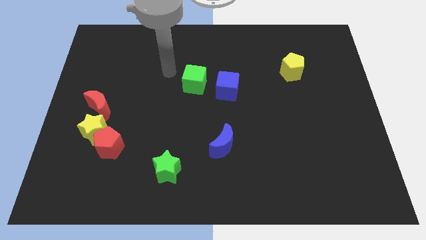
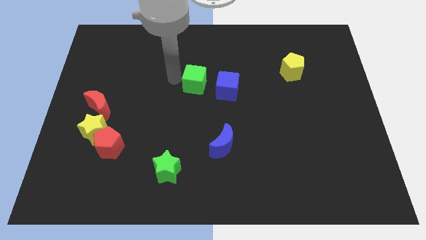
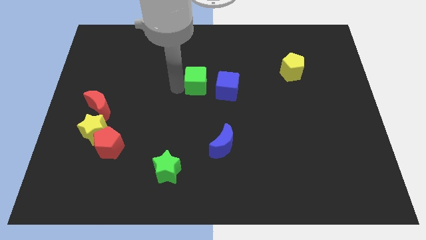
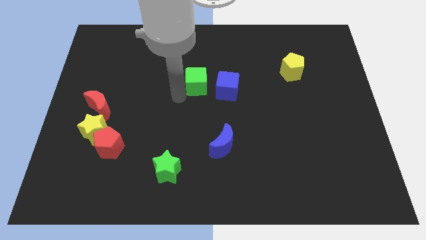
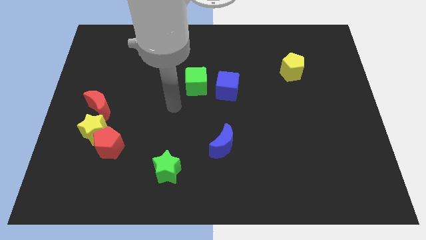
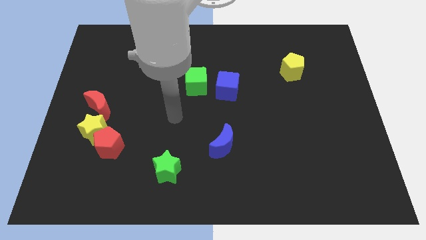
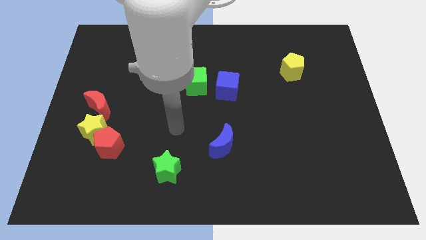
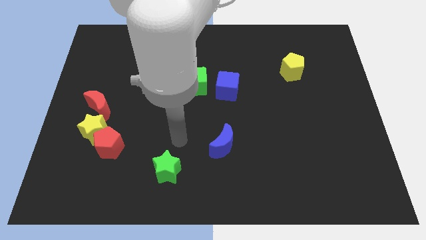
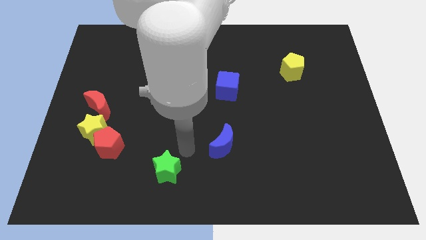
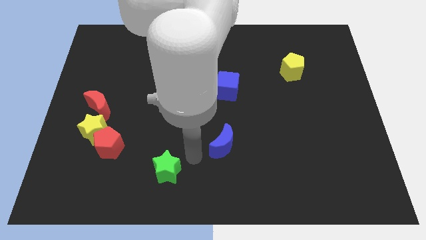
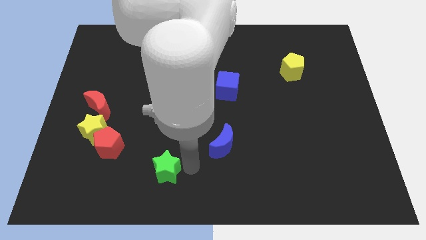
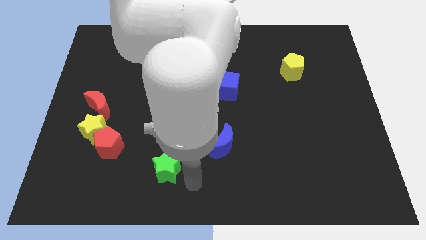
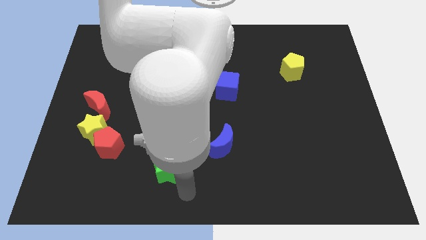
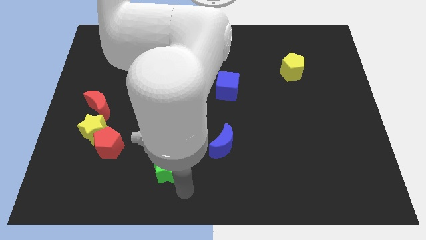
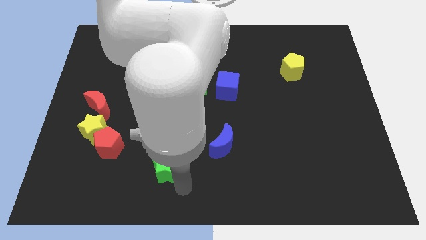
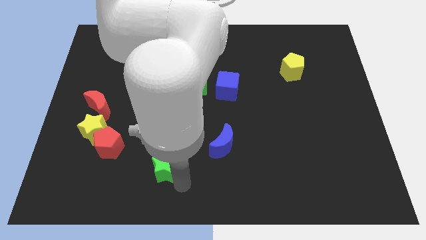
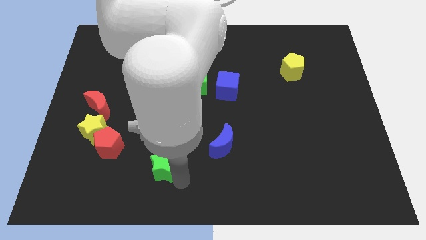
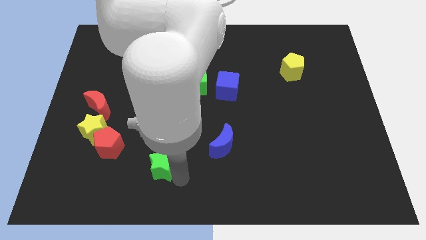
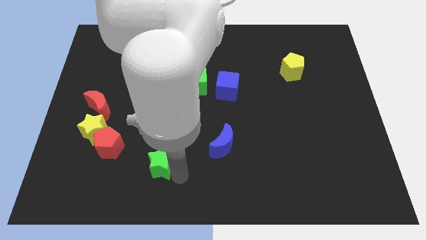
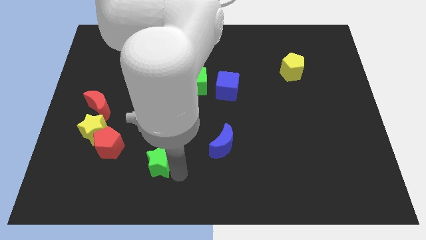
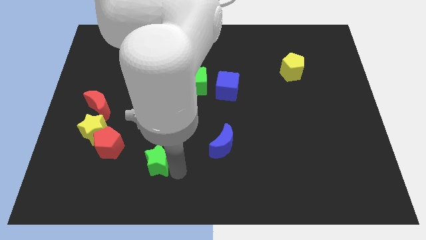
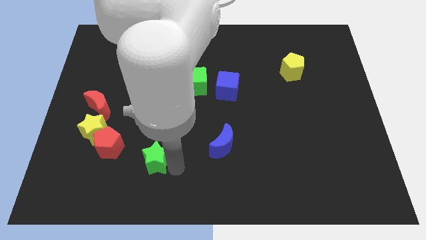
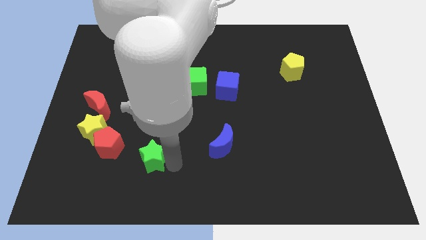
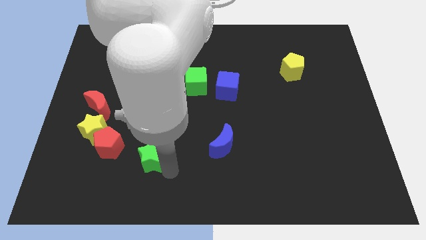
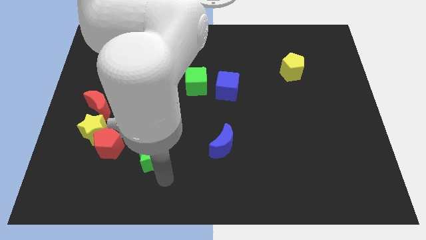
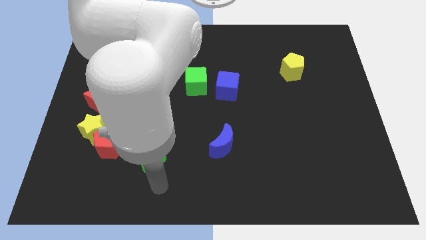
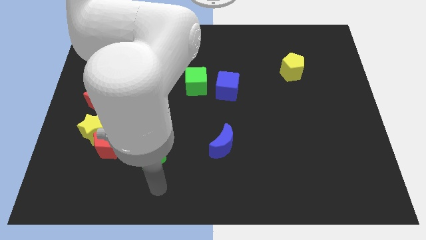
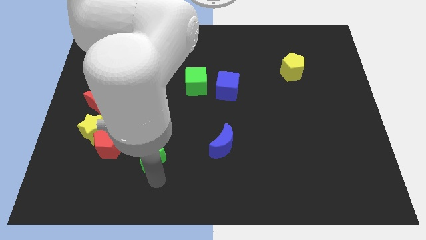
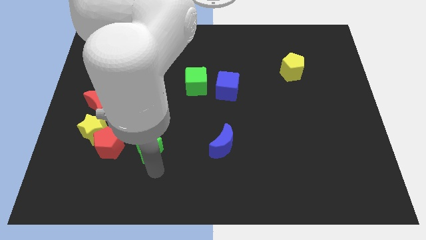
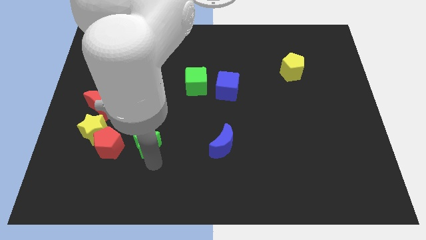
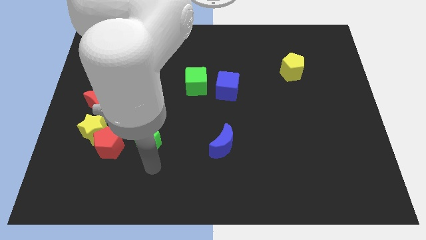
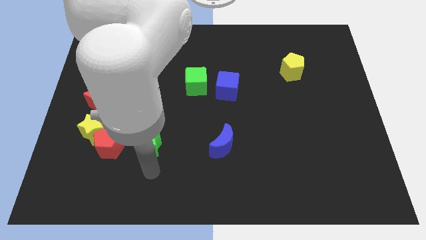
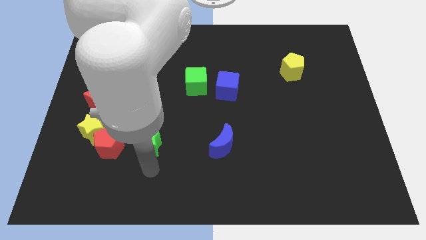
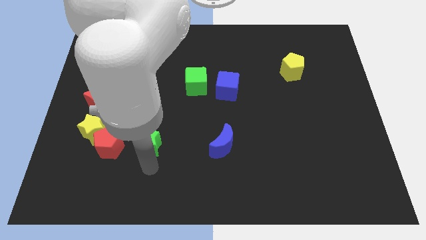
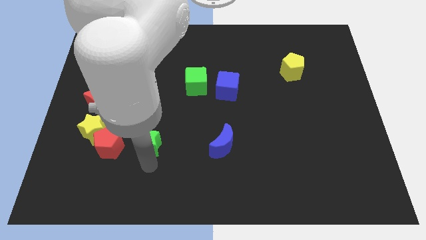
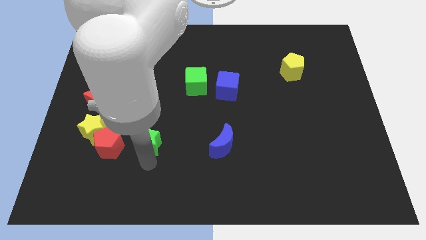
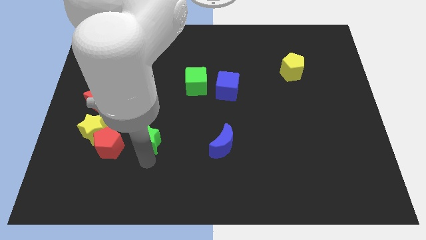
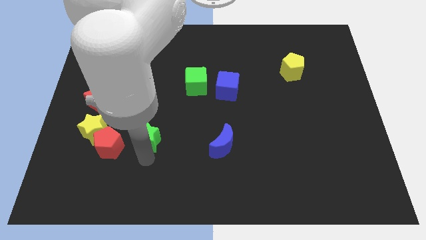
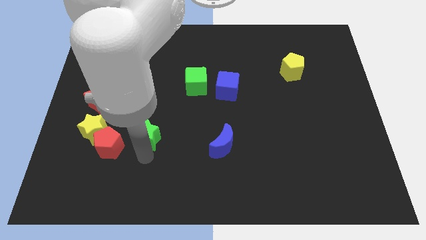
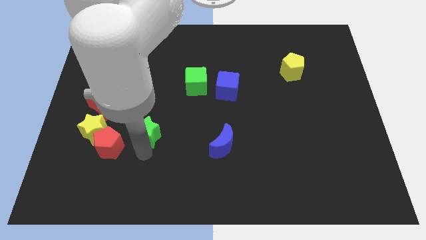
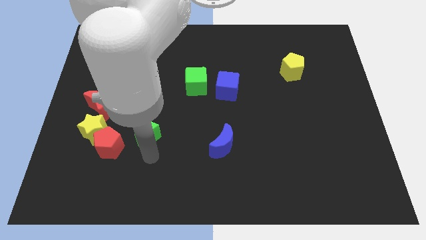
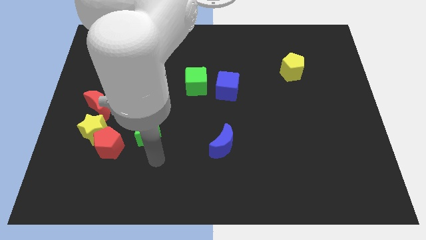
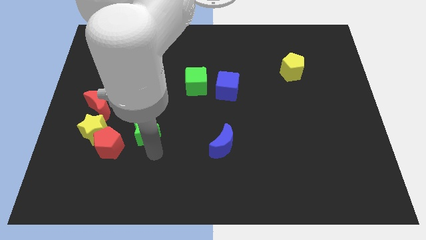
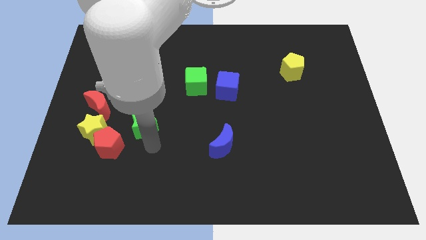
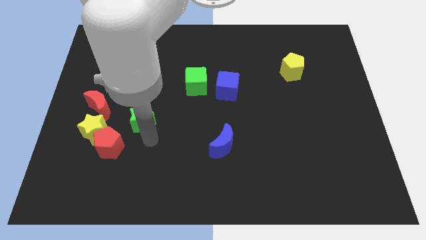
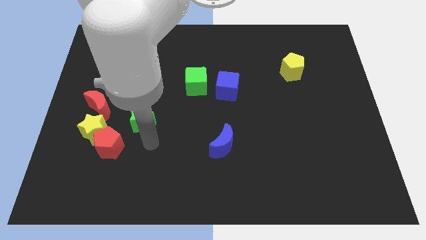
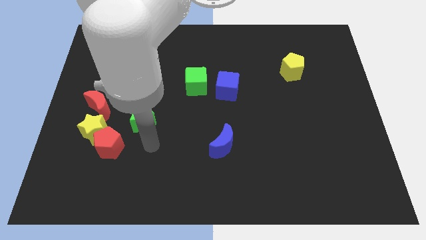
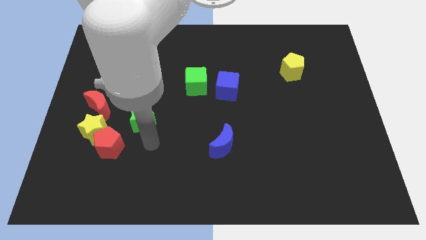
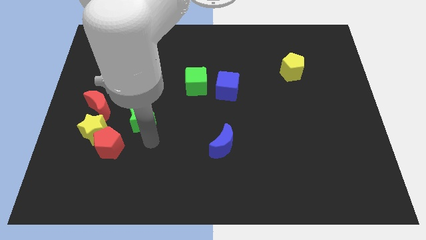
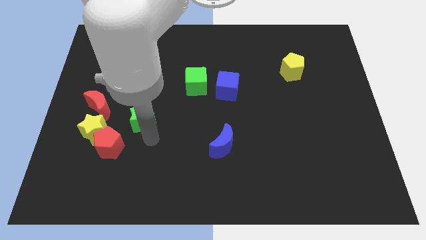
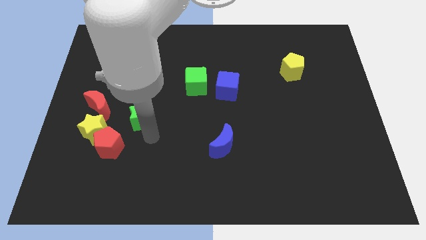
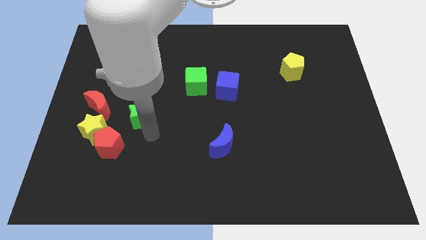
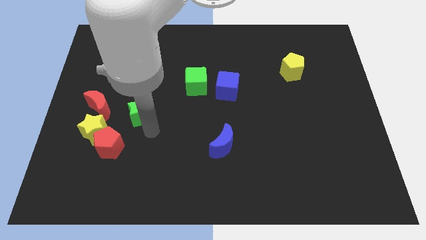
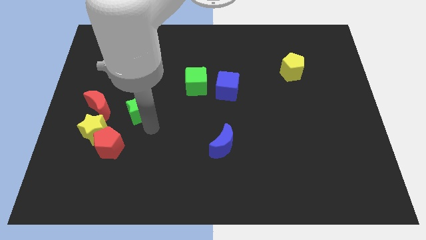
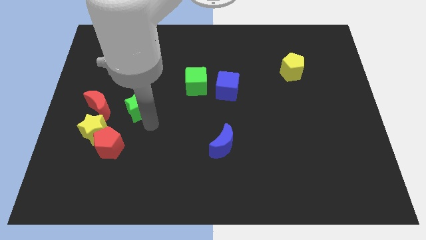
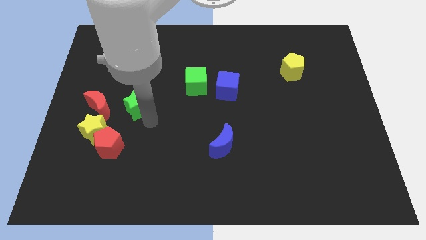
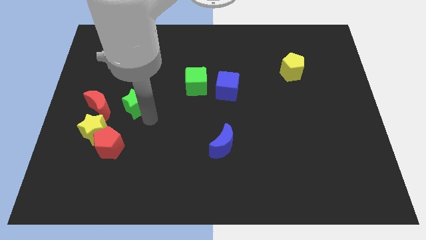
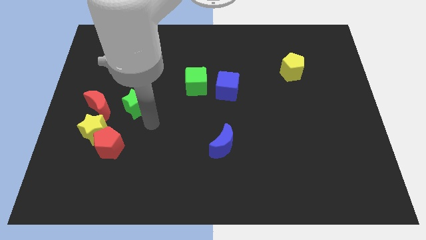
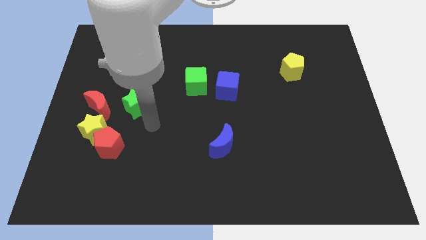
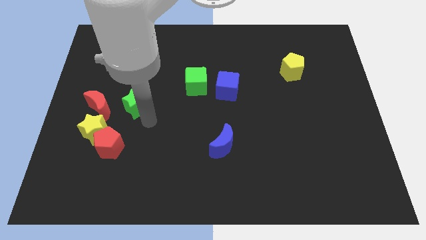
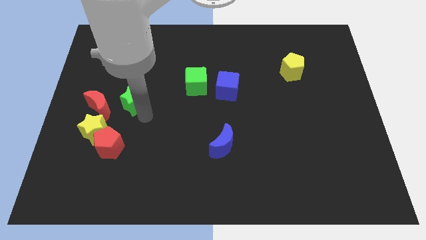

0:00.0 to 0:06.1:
push the green star to the top right side of the red moon
